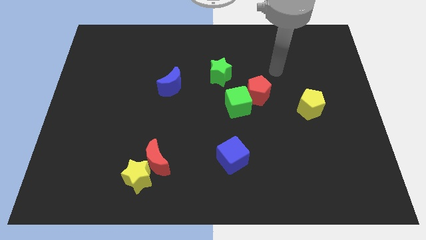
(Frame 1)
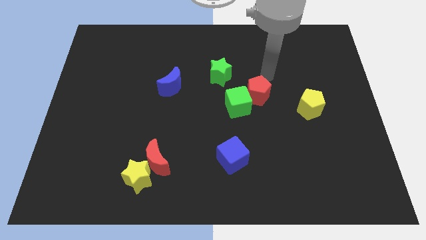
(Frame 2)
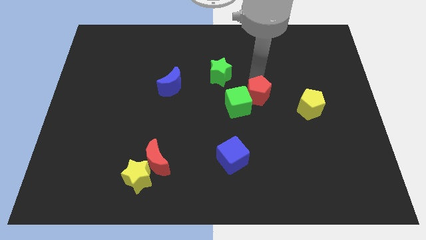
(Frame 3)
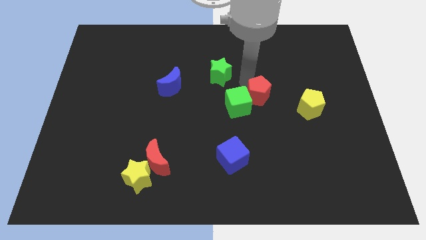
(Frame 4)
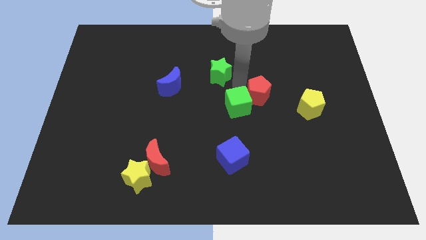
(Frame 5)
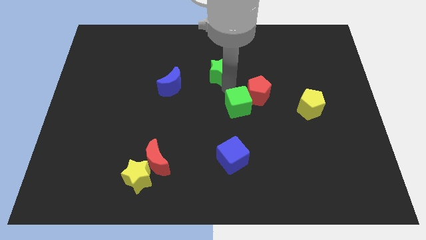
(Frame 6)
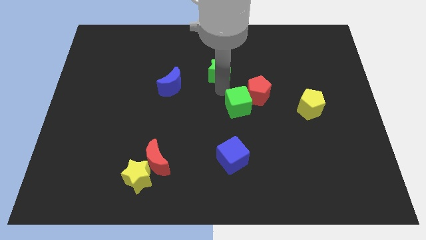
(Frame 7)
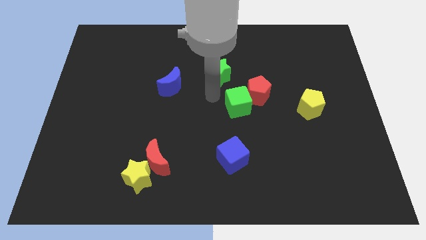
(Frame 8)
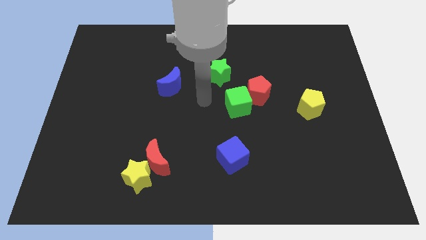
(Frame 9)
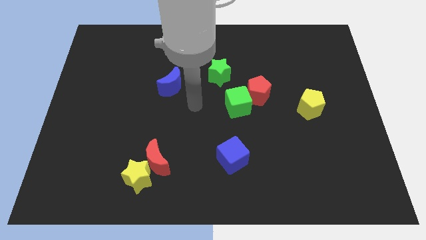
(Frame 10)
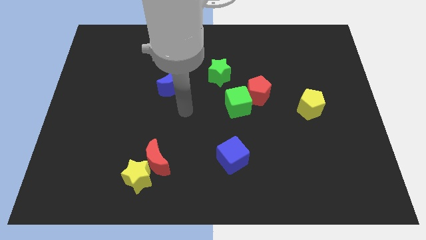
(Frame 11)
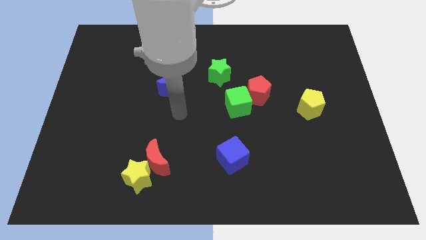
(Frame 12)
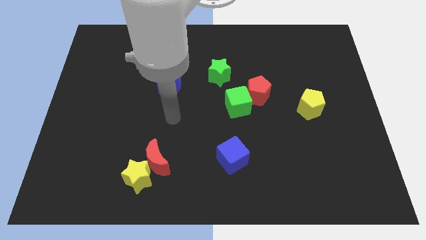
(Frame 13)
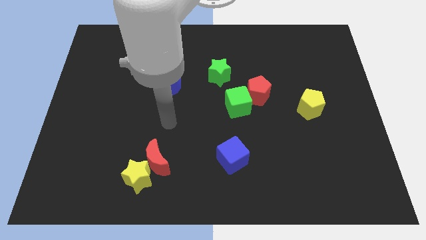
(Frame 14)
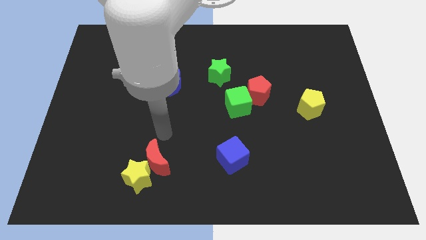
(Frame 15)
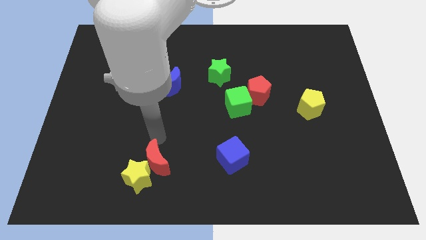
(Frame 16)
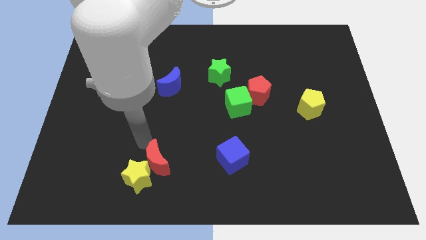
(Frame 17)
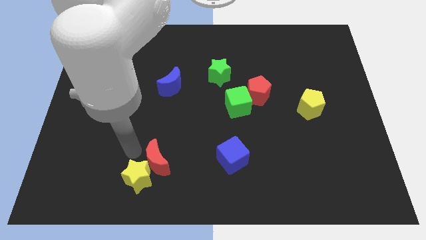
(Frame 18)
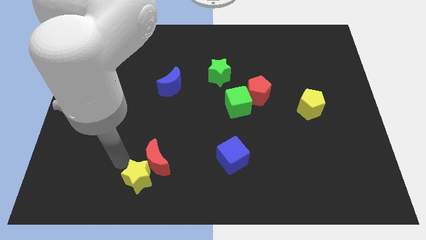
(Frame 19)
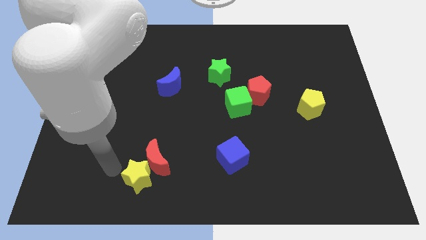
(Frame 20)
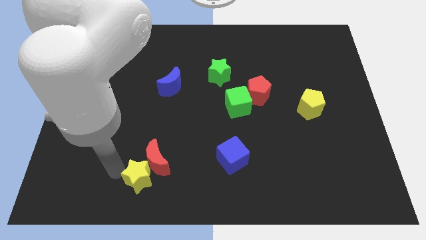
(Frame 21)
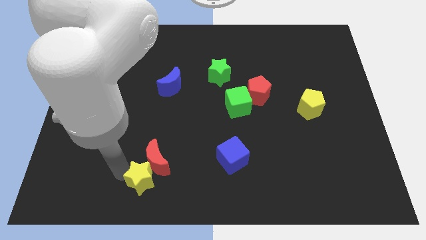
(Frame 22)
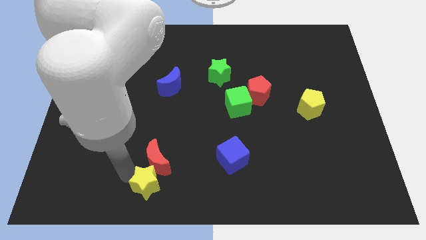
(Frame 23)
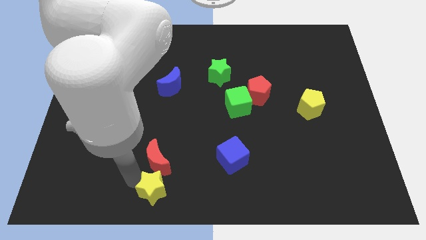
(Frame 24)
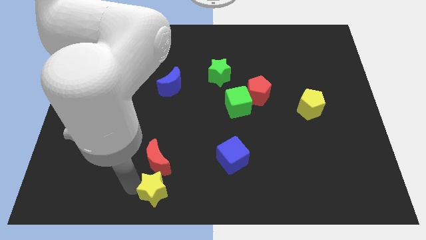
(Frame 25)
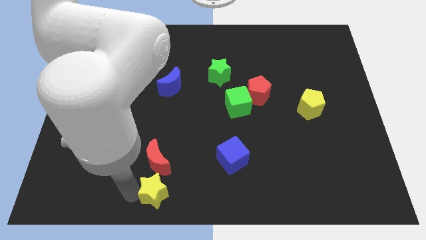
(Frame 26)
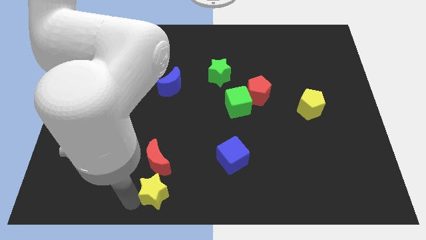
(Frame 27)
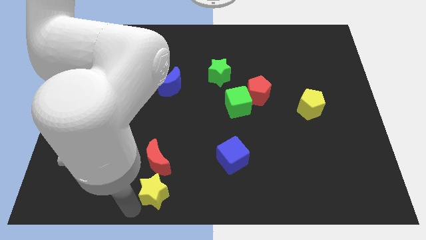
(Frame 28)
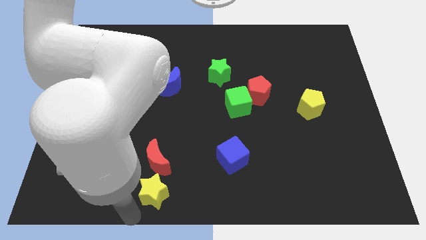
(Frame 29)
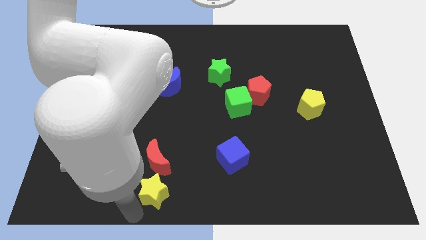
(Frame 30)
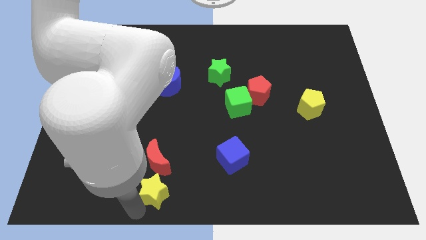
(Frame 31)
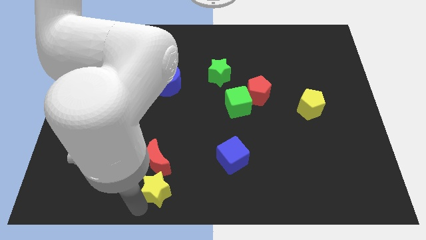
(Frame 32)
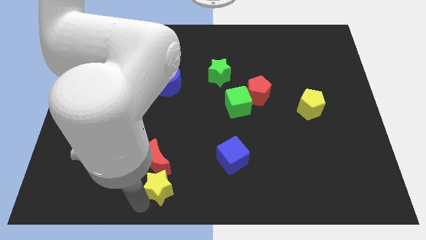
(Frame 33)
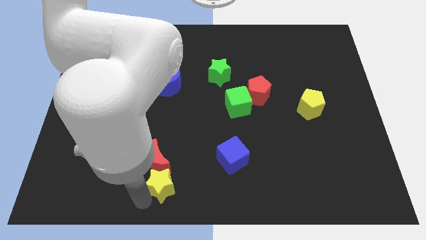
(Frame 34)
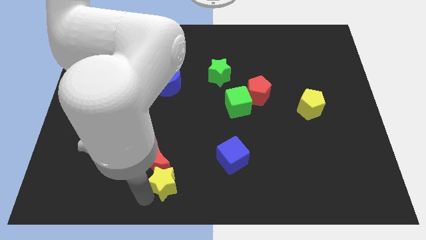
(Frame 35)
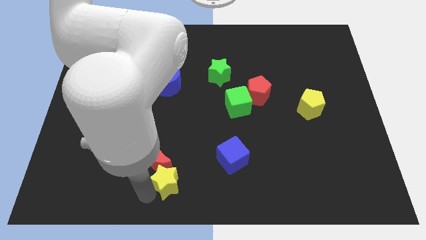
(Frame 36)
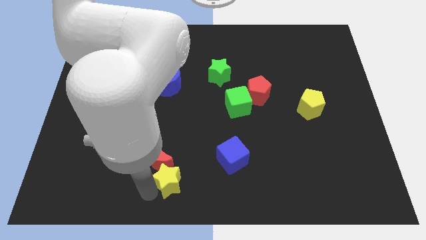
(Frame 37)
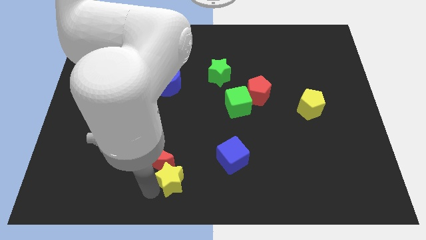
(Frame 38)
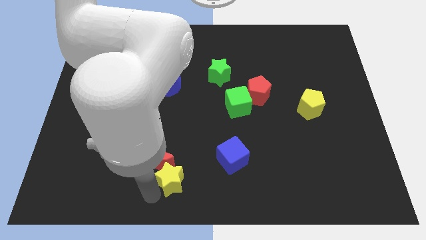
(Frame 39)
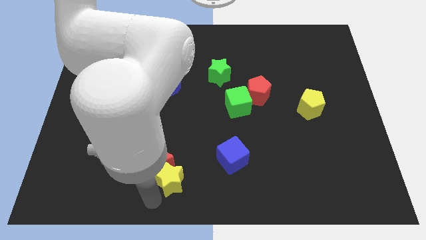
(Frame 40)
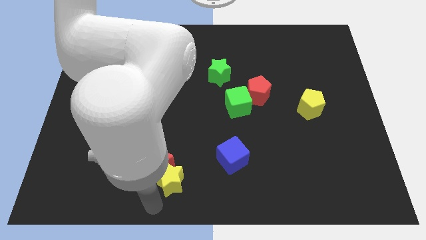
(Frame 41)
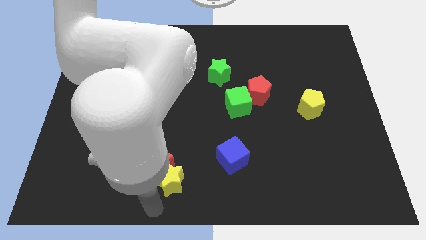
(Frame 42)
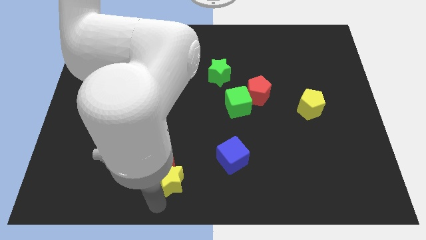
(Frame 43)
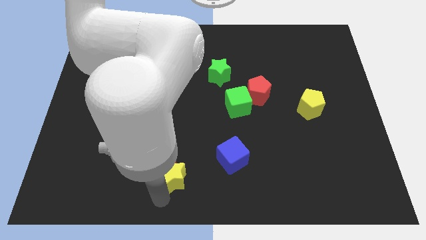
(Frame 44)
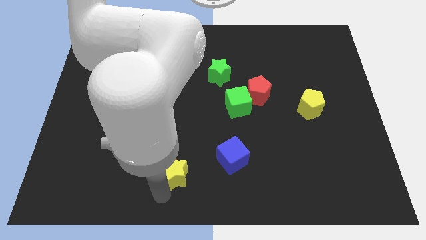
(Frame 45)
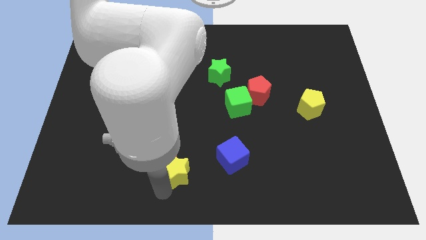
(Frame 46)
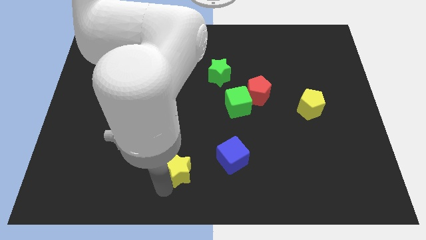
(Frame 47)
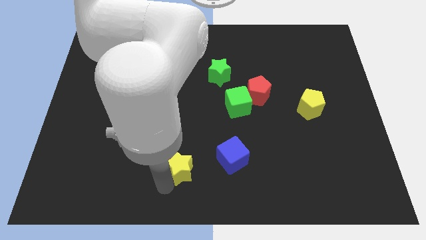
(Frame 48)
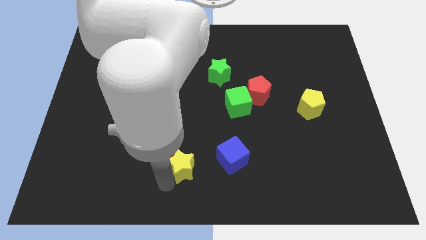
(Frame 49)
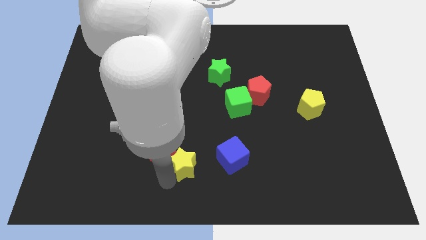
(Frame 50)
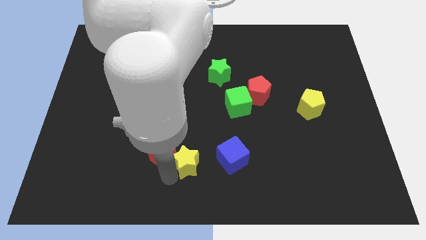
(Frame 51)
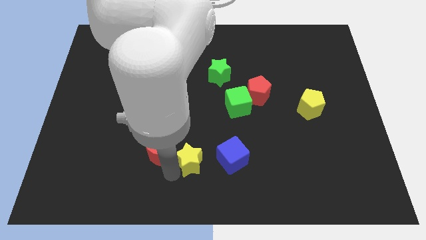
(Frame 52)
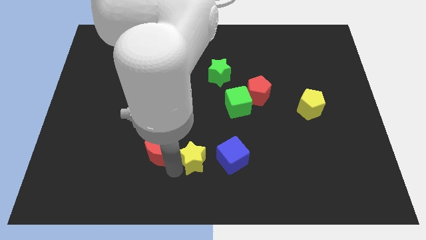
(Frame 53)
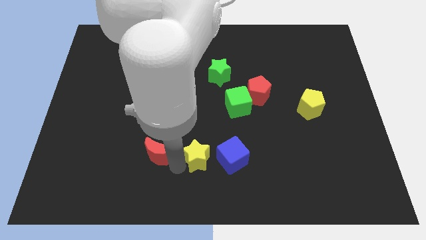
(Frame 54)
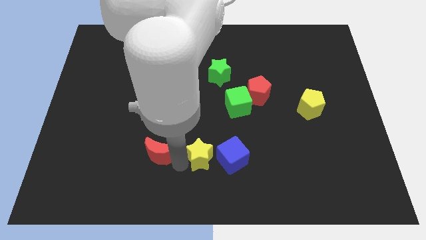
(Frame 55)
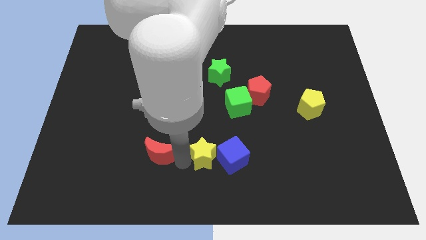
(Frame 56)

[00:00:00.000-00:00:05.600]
push the yellow star close to the blue cube

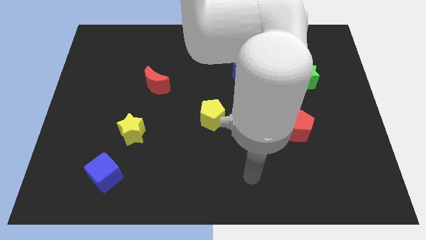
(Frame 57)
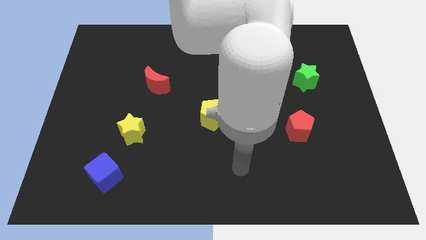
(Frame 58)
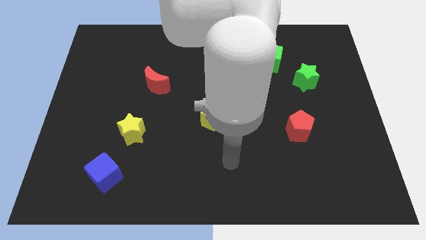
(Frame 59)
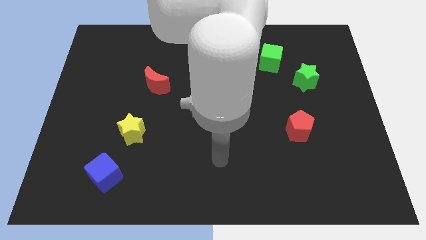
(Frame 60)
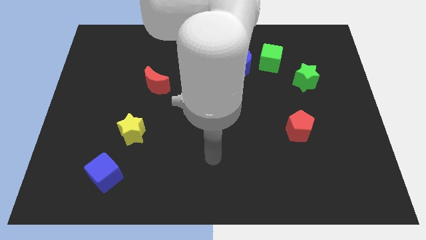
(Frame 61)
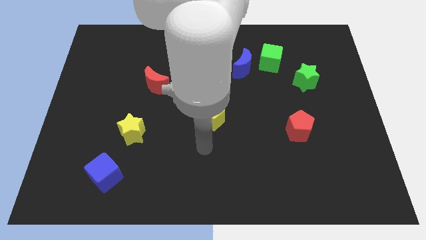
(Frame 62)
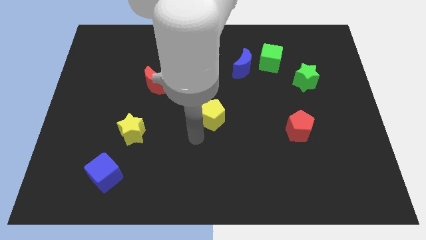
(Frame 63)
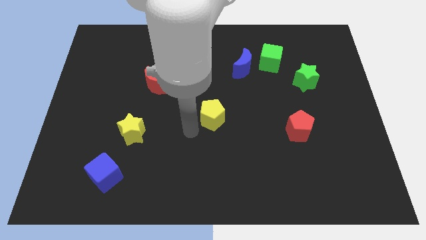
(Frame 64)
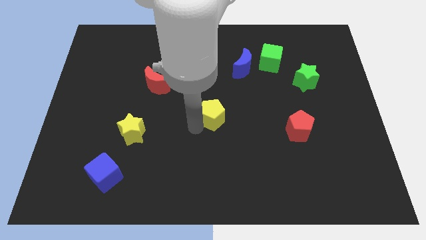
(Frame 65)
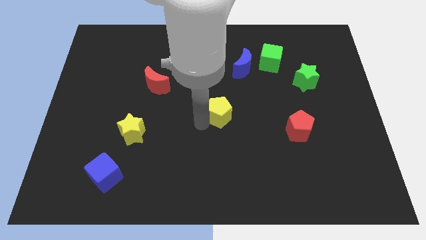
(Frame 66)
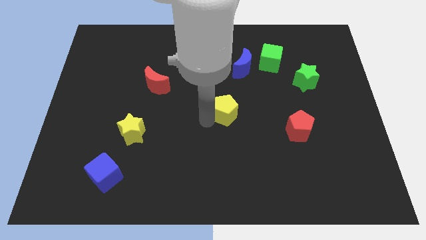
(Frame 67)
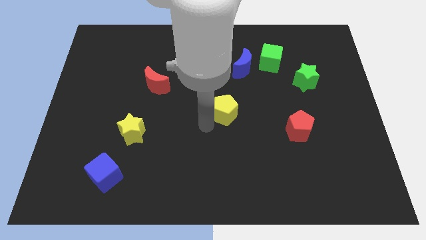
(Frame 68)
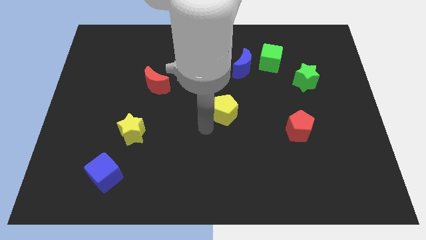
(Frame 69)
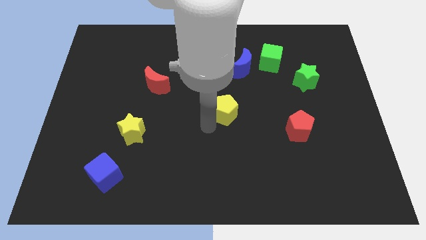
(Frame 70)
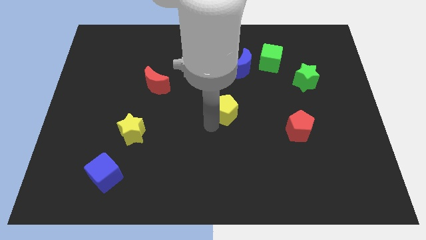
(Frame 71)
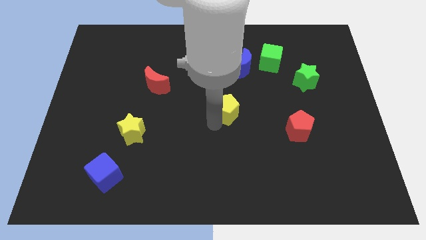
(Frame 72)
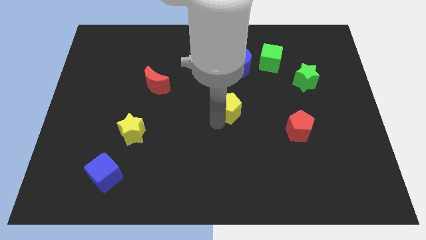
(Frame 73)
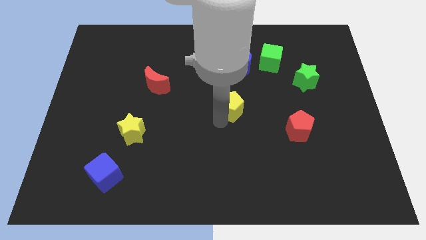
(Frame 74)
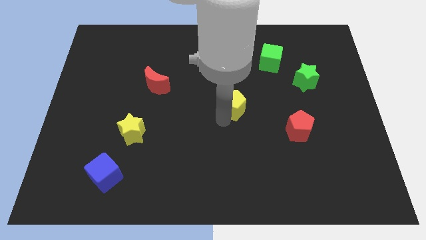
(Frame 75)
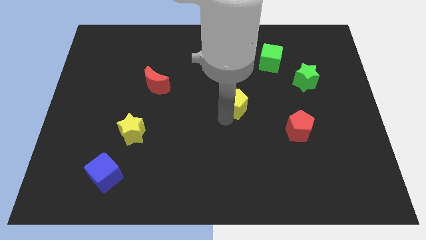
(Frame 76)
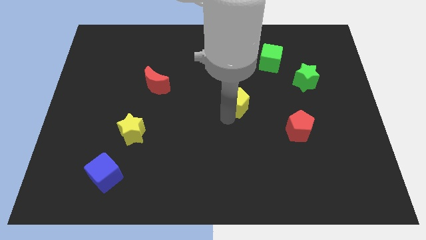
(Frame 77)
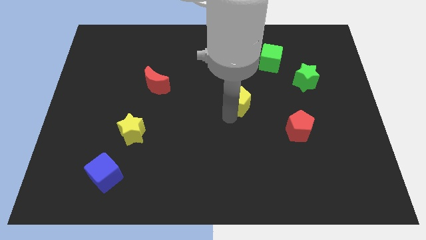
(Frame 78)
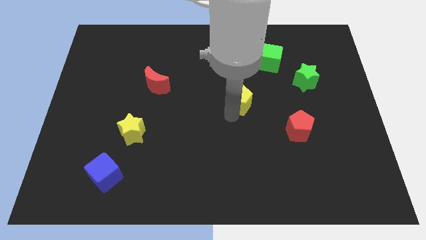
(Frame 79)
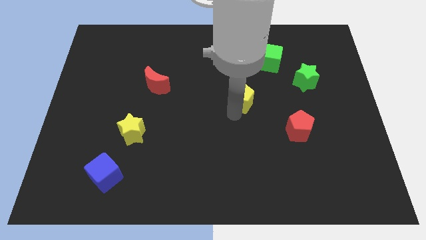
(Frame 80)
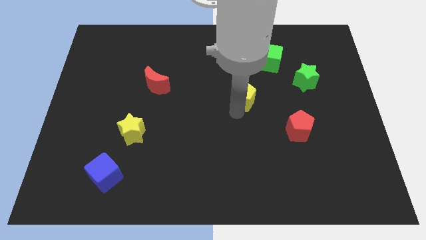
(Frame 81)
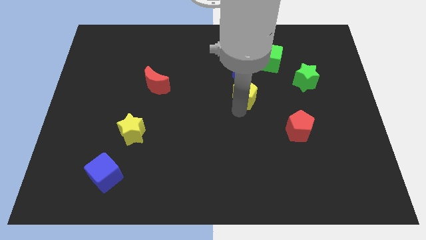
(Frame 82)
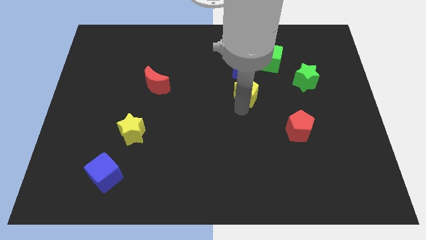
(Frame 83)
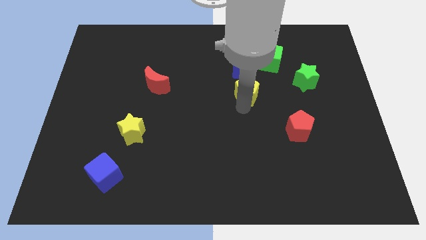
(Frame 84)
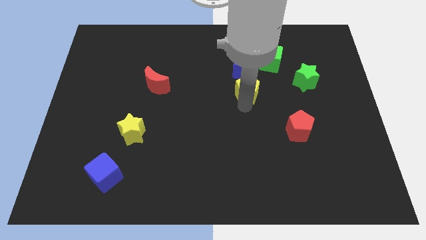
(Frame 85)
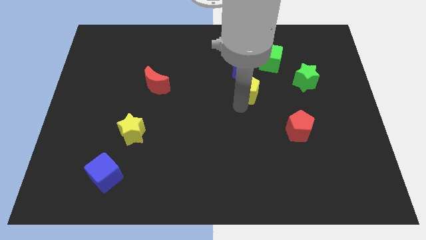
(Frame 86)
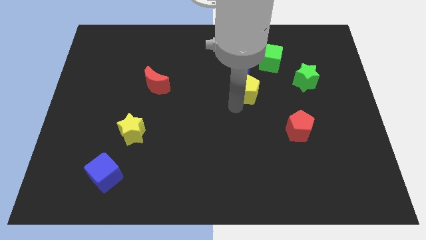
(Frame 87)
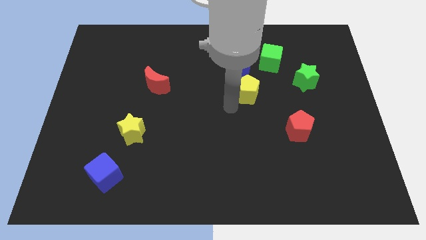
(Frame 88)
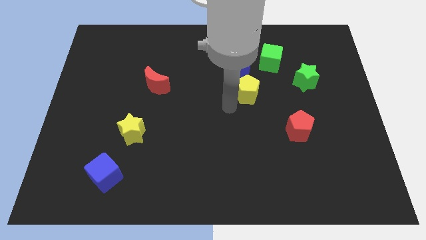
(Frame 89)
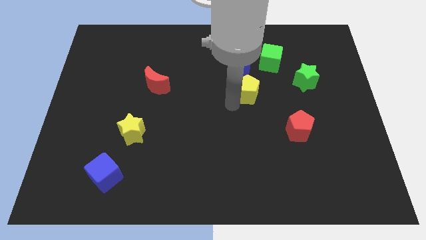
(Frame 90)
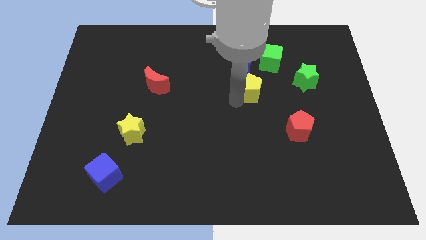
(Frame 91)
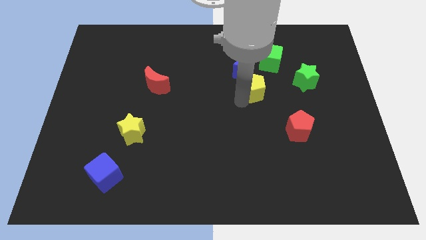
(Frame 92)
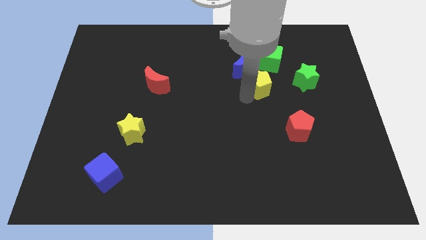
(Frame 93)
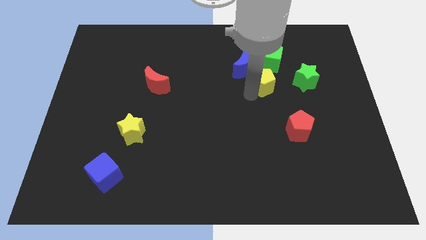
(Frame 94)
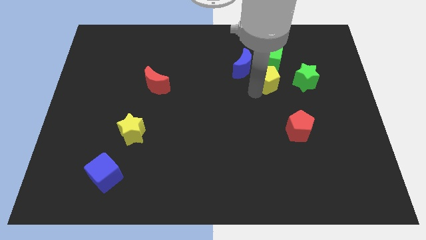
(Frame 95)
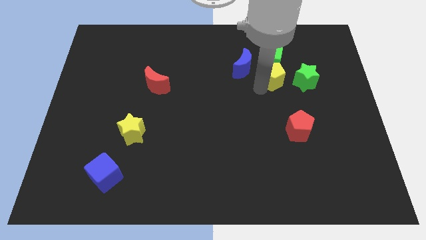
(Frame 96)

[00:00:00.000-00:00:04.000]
slide the yellow pentagon to the green cube
